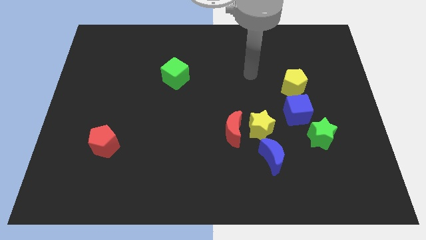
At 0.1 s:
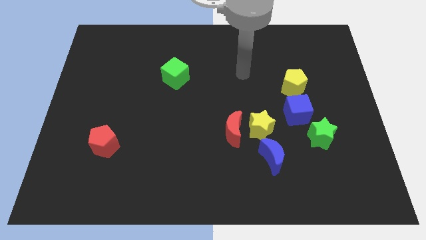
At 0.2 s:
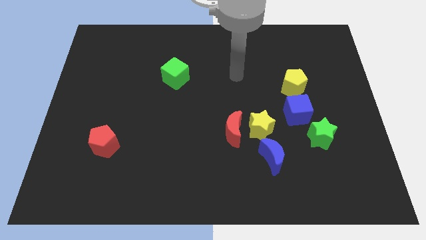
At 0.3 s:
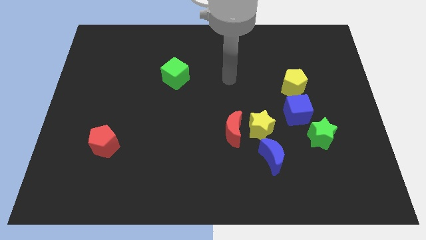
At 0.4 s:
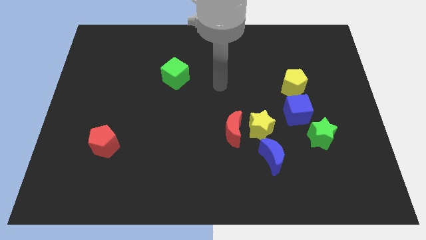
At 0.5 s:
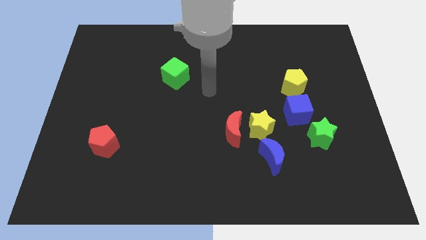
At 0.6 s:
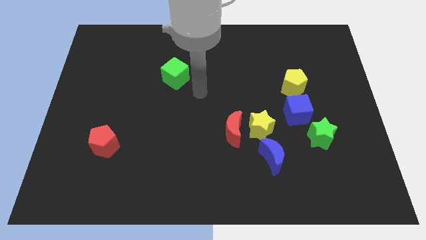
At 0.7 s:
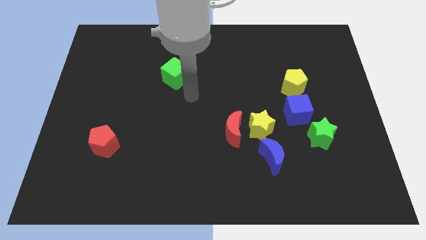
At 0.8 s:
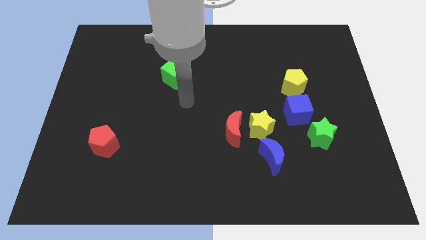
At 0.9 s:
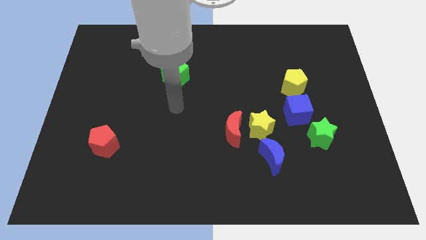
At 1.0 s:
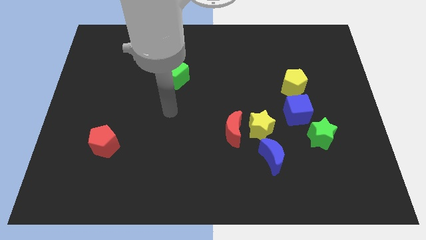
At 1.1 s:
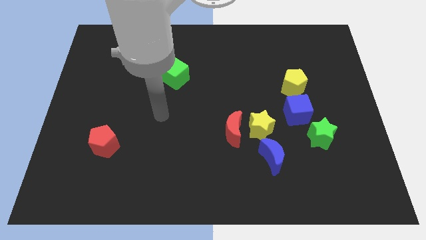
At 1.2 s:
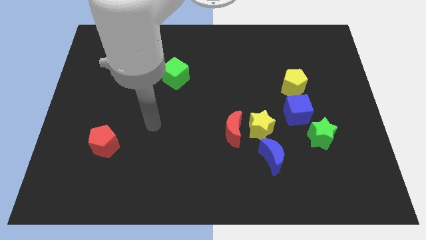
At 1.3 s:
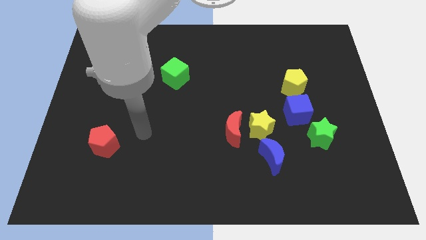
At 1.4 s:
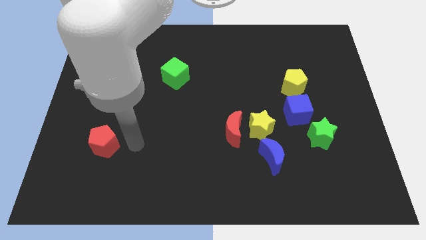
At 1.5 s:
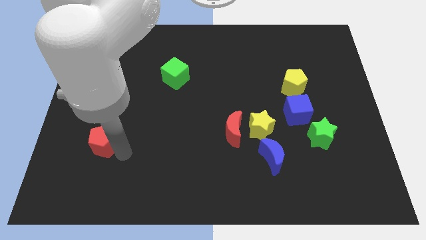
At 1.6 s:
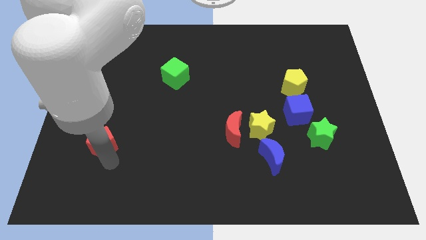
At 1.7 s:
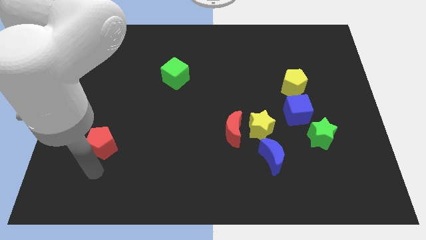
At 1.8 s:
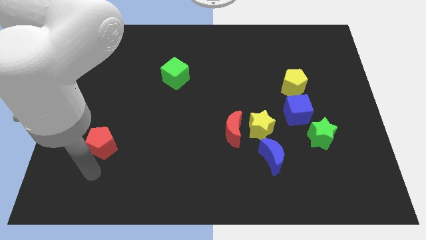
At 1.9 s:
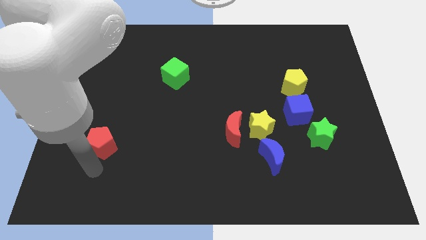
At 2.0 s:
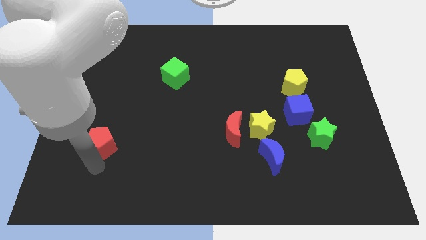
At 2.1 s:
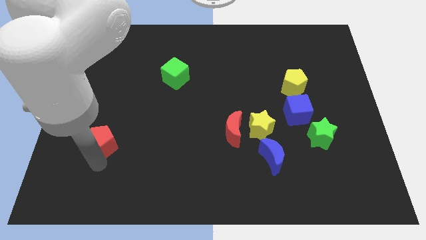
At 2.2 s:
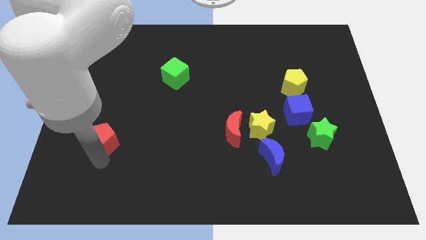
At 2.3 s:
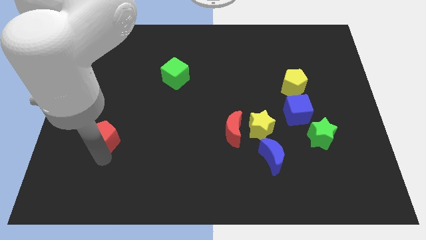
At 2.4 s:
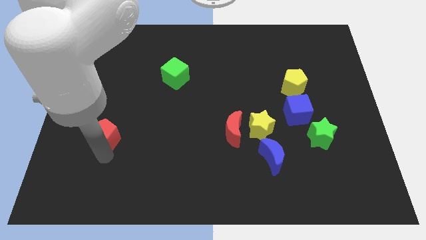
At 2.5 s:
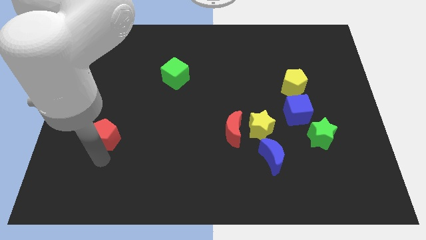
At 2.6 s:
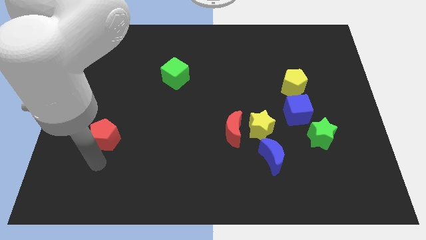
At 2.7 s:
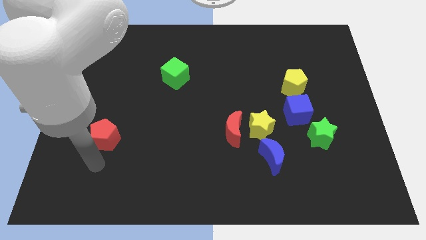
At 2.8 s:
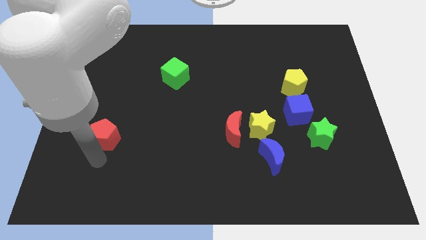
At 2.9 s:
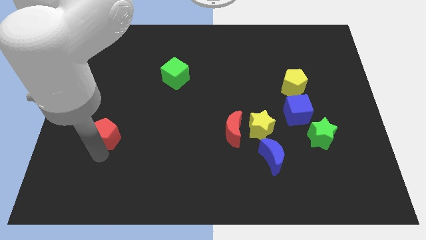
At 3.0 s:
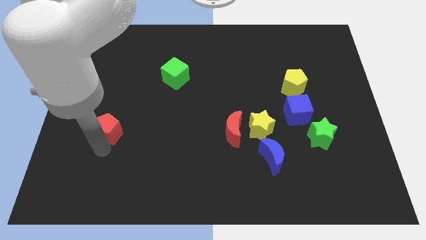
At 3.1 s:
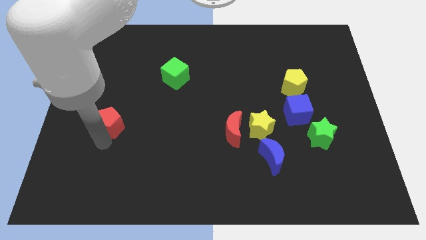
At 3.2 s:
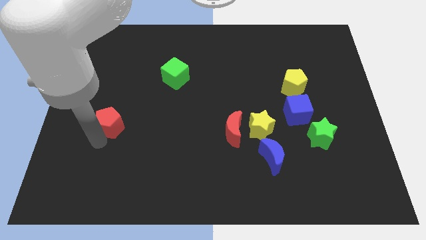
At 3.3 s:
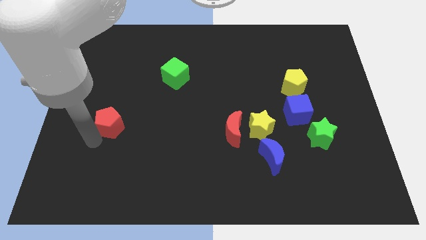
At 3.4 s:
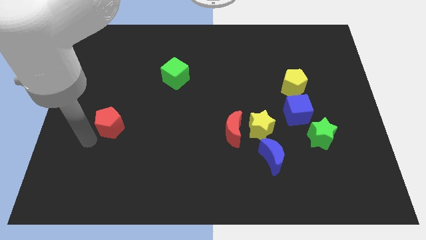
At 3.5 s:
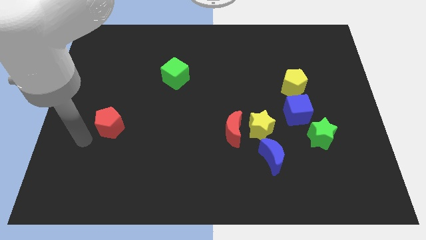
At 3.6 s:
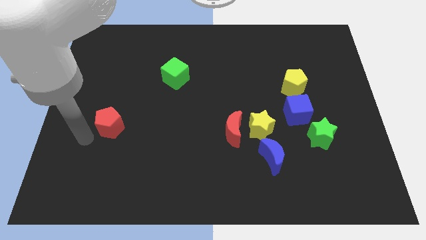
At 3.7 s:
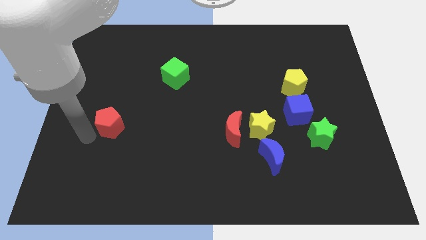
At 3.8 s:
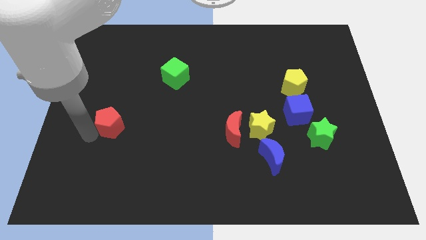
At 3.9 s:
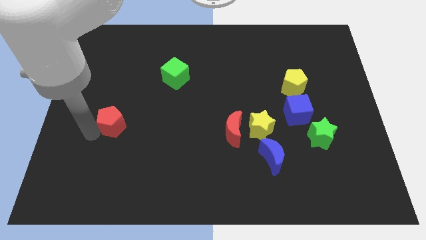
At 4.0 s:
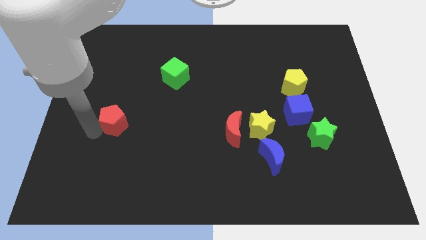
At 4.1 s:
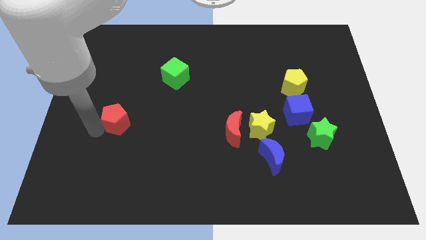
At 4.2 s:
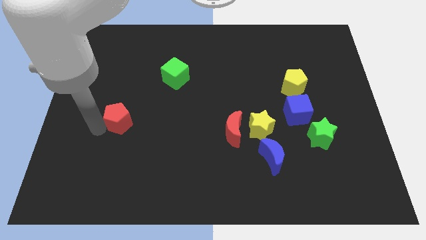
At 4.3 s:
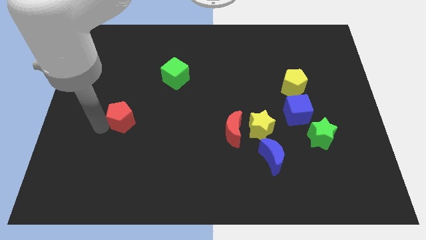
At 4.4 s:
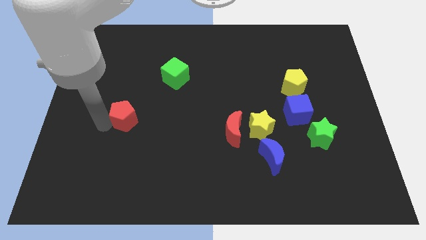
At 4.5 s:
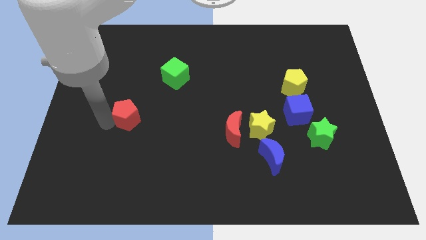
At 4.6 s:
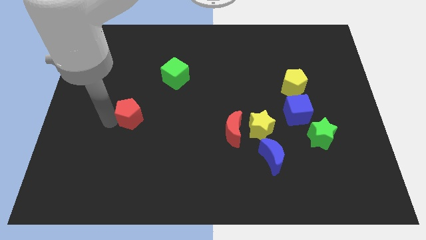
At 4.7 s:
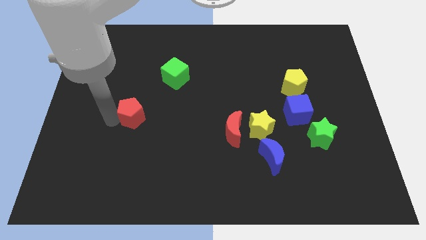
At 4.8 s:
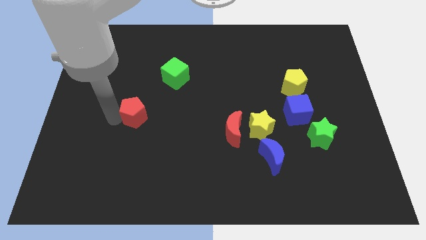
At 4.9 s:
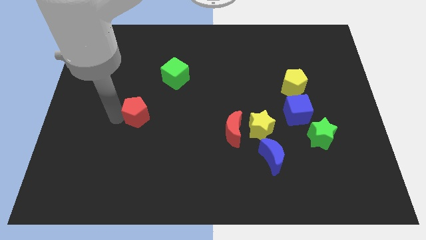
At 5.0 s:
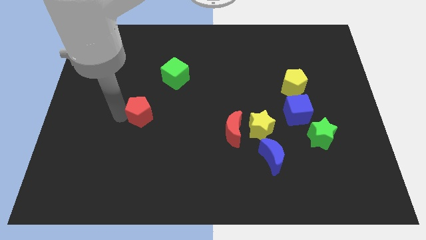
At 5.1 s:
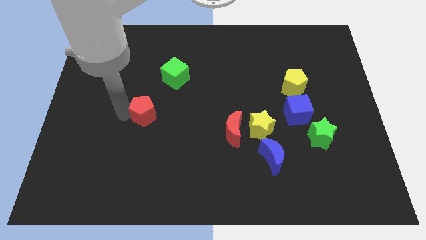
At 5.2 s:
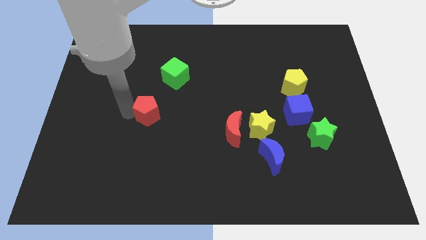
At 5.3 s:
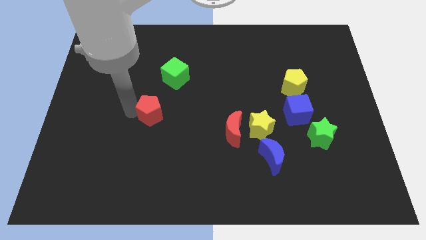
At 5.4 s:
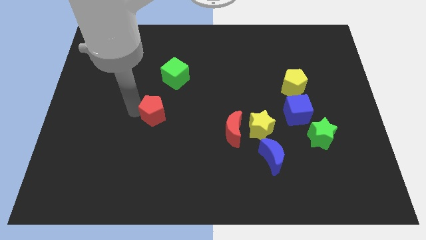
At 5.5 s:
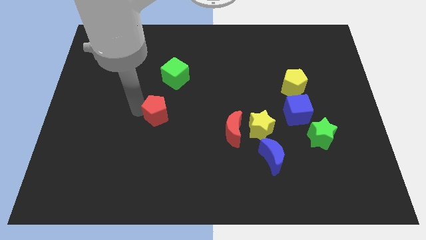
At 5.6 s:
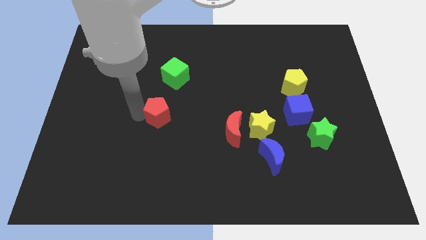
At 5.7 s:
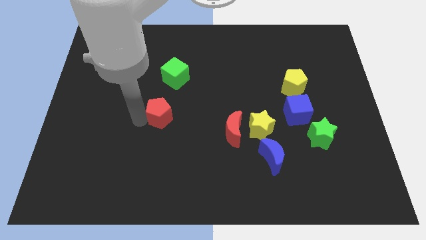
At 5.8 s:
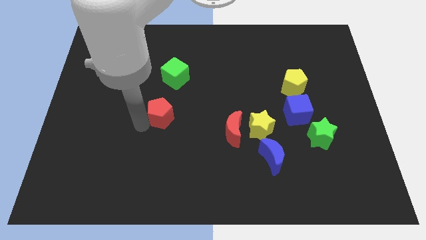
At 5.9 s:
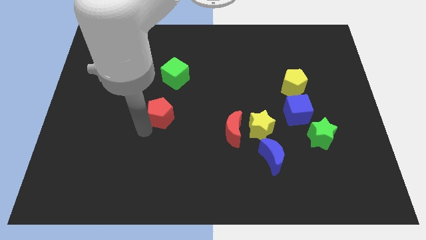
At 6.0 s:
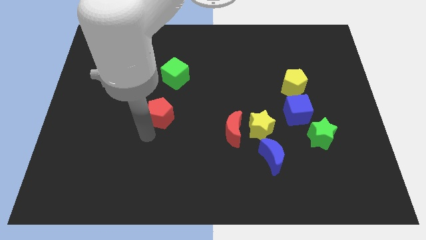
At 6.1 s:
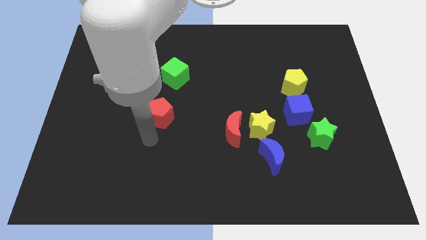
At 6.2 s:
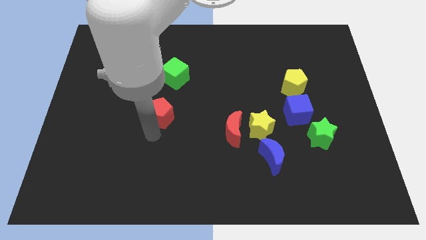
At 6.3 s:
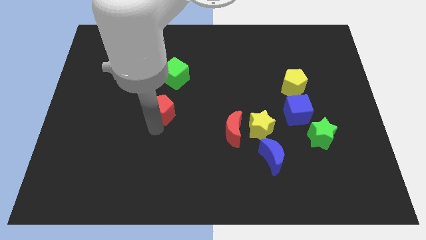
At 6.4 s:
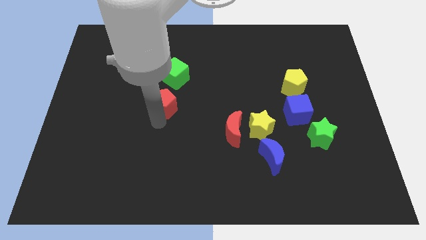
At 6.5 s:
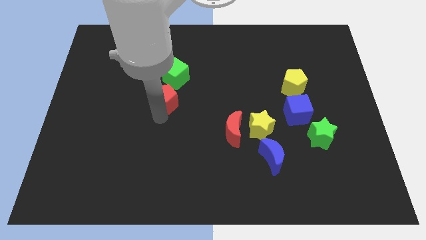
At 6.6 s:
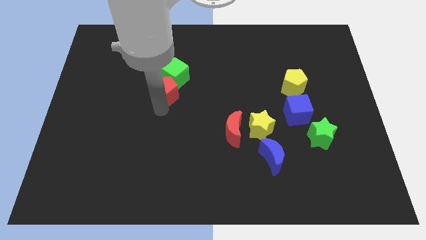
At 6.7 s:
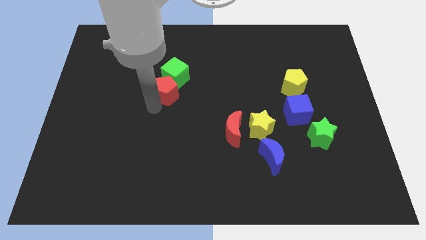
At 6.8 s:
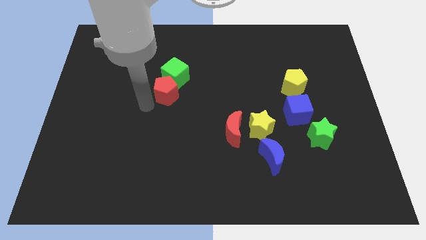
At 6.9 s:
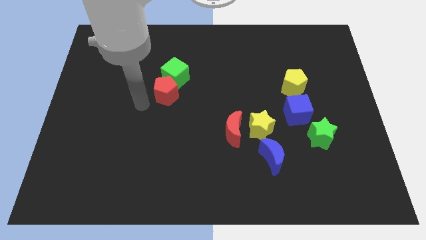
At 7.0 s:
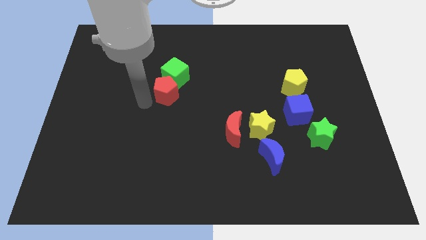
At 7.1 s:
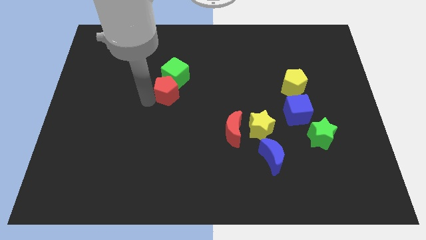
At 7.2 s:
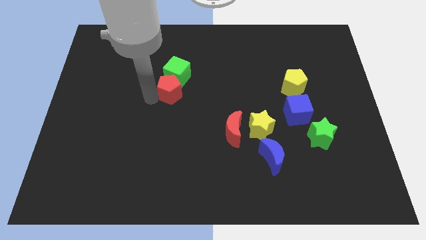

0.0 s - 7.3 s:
move the red pentagon diagonally up and right

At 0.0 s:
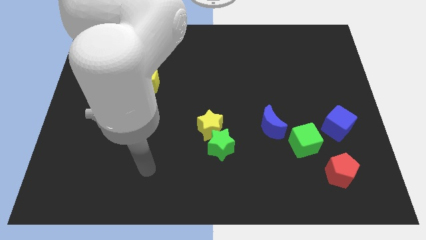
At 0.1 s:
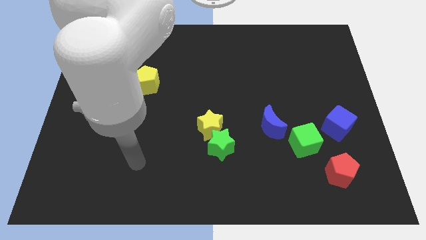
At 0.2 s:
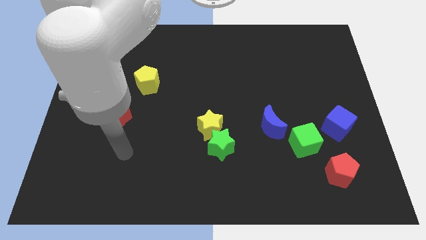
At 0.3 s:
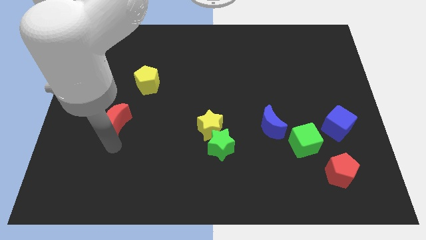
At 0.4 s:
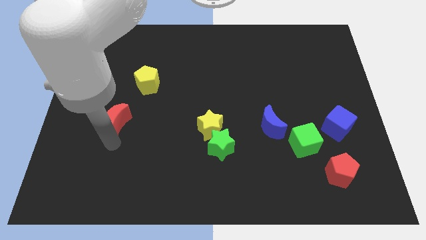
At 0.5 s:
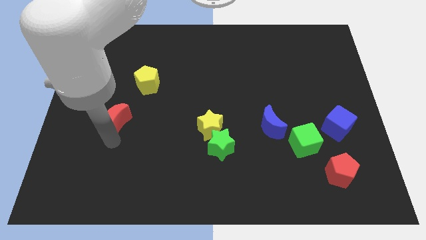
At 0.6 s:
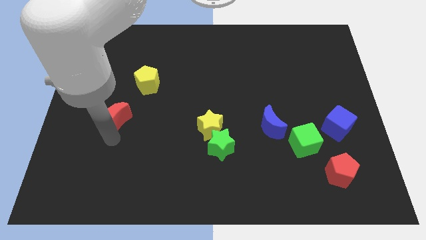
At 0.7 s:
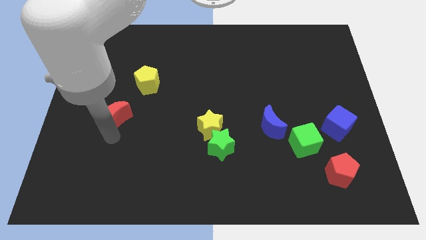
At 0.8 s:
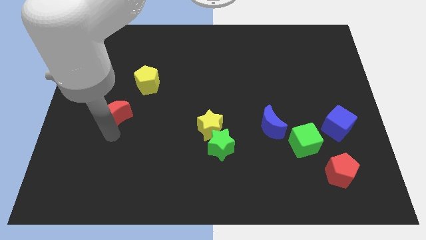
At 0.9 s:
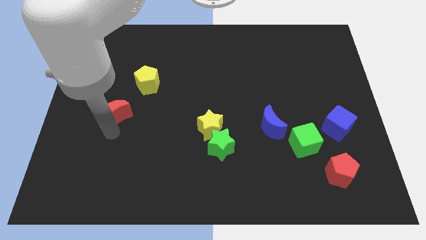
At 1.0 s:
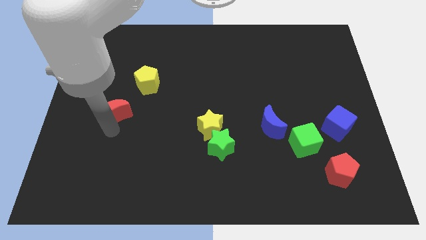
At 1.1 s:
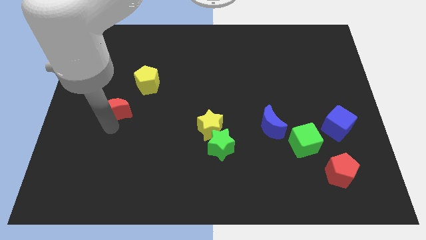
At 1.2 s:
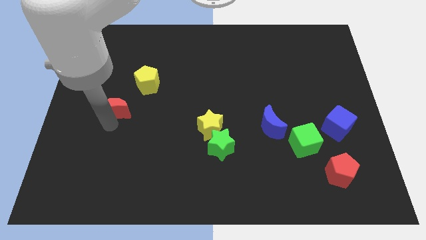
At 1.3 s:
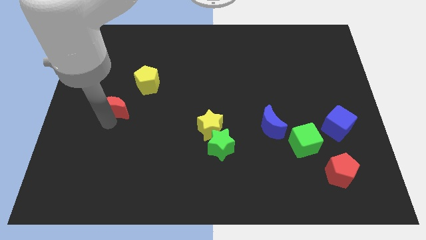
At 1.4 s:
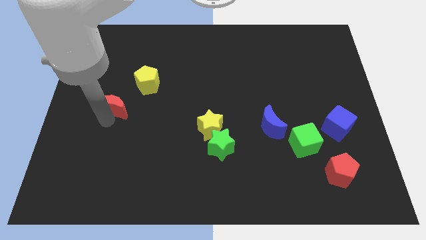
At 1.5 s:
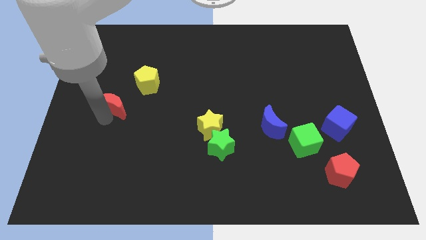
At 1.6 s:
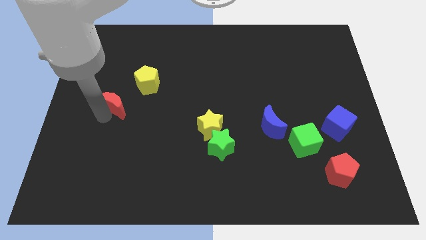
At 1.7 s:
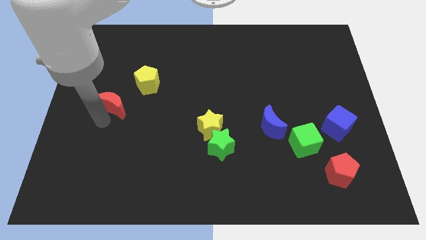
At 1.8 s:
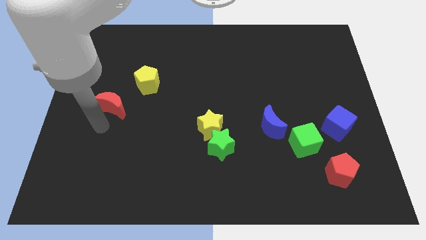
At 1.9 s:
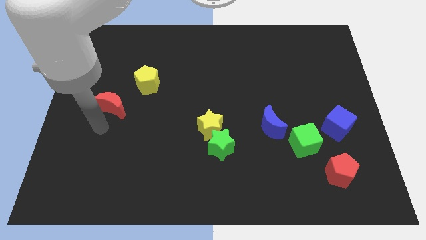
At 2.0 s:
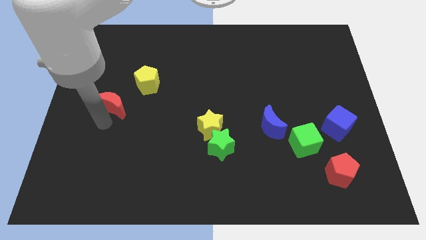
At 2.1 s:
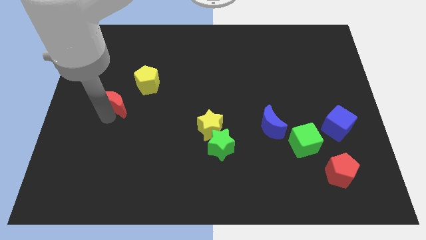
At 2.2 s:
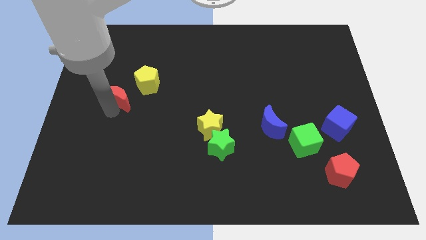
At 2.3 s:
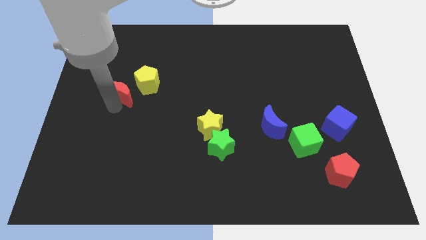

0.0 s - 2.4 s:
slightly slide the red moon up
